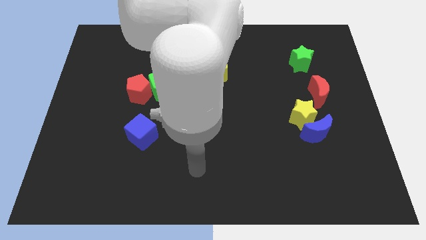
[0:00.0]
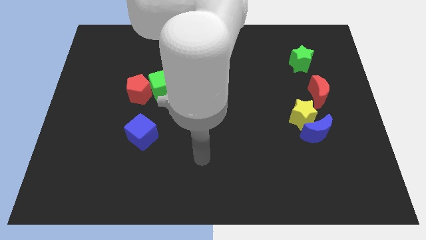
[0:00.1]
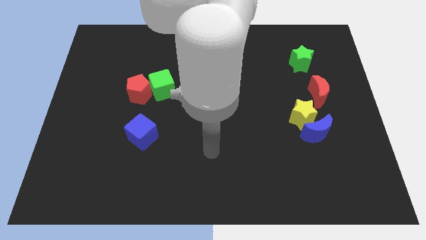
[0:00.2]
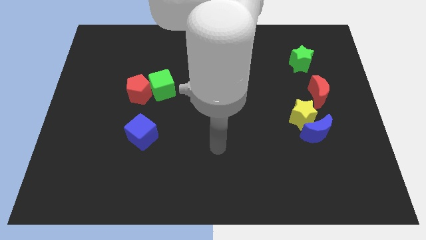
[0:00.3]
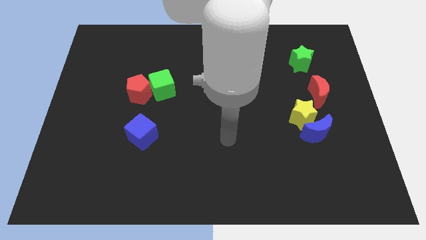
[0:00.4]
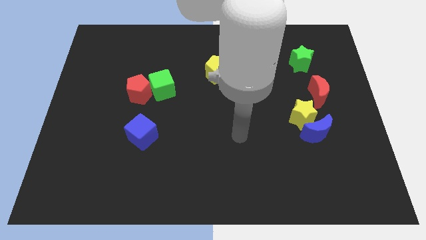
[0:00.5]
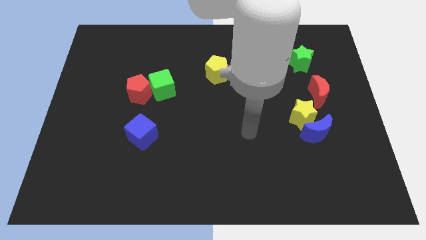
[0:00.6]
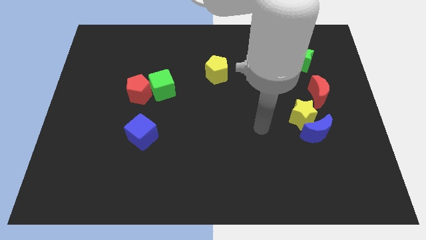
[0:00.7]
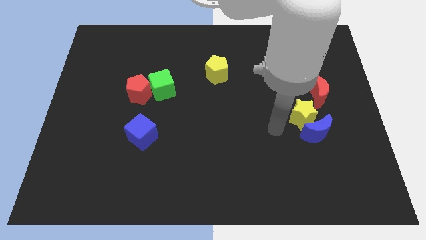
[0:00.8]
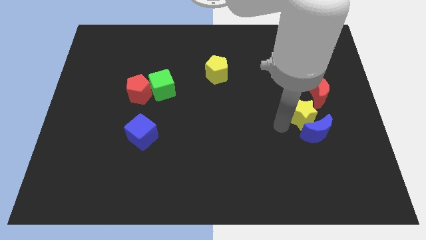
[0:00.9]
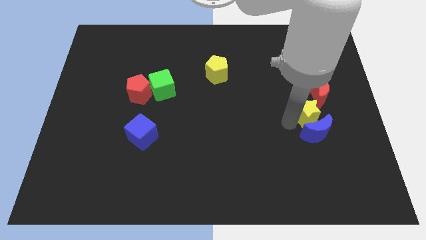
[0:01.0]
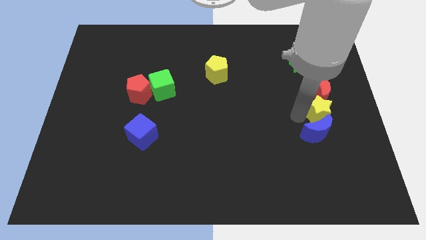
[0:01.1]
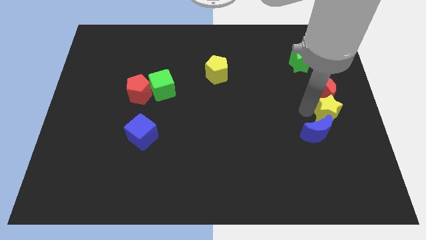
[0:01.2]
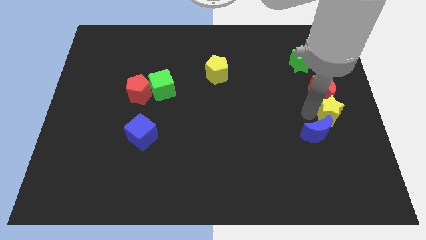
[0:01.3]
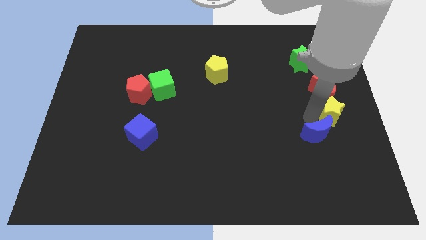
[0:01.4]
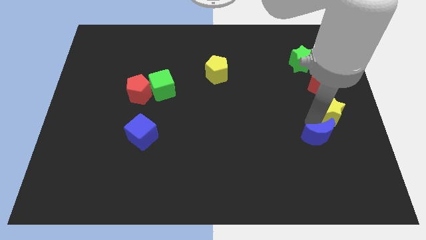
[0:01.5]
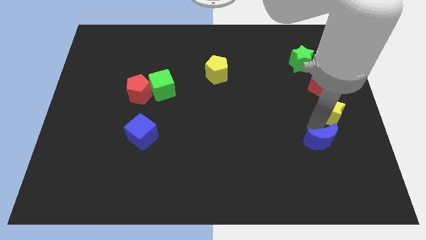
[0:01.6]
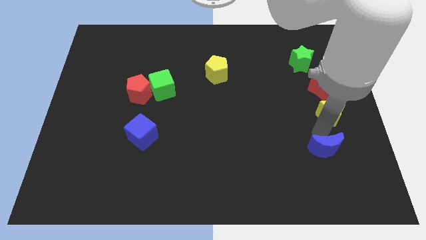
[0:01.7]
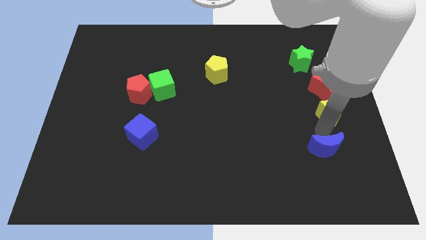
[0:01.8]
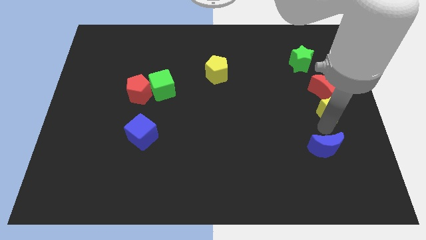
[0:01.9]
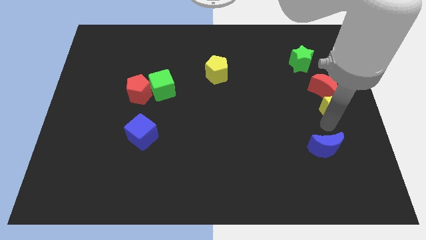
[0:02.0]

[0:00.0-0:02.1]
separate the blue moon from the yellow star

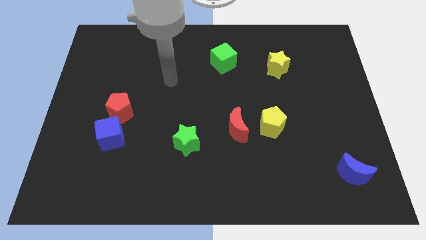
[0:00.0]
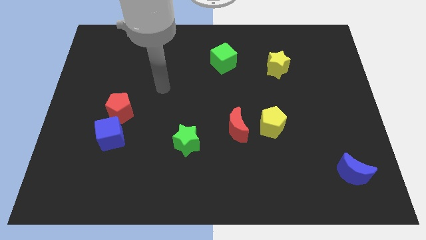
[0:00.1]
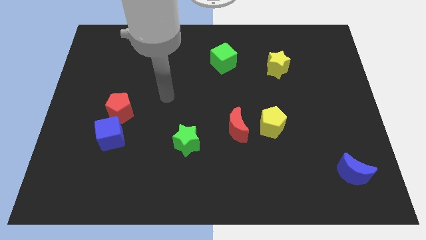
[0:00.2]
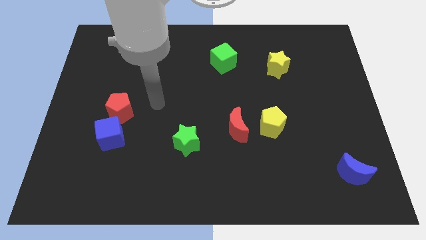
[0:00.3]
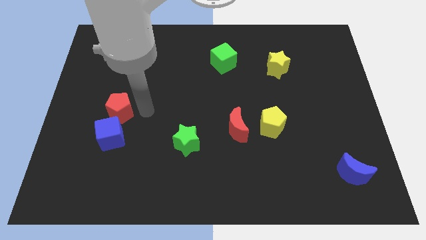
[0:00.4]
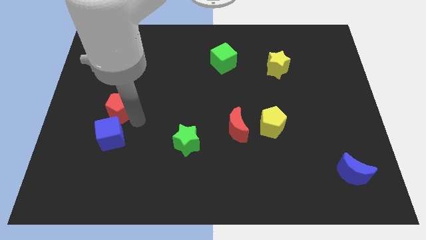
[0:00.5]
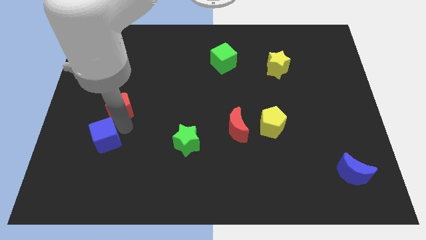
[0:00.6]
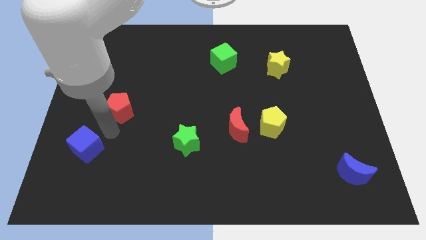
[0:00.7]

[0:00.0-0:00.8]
pull the red pentagon apart from the blue cube

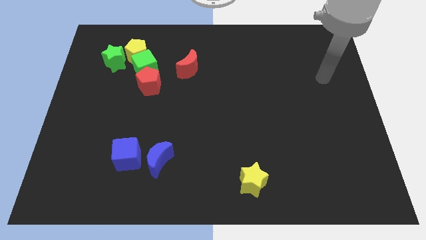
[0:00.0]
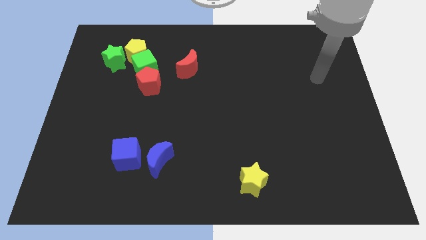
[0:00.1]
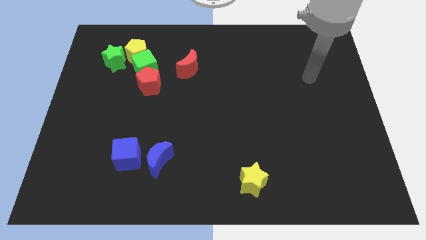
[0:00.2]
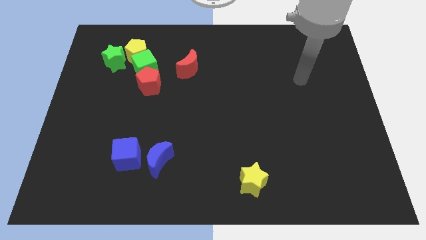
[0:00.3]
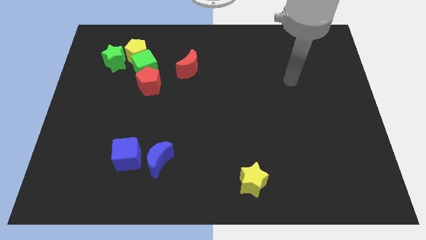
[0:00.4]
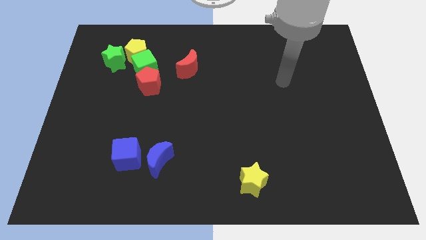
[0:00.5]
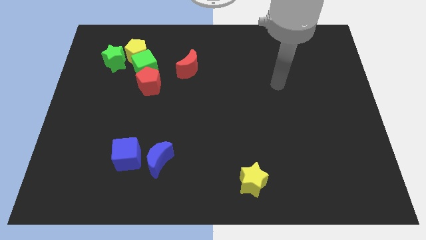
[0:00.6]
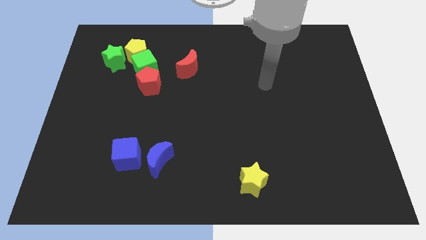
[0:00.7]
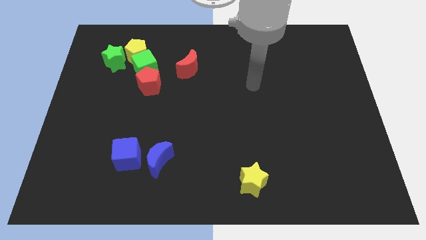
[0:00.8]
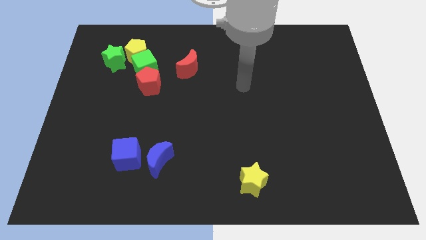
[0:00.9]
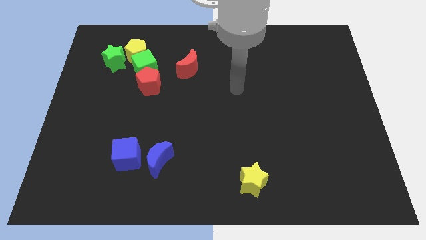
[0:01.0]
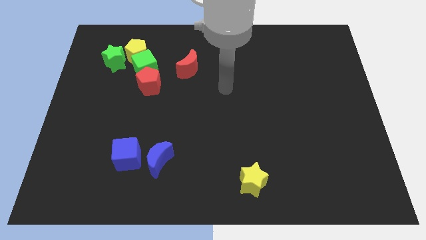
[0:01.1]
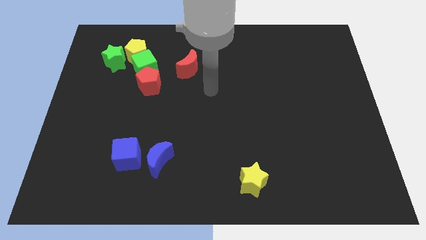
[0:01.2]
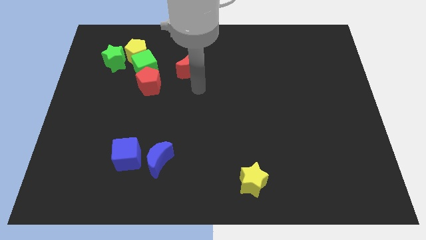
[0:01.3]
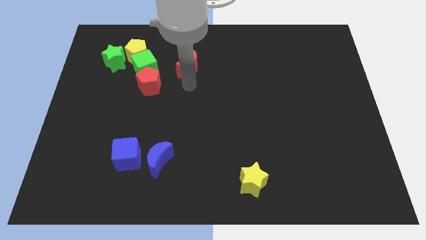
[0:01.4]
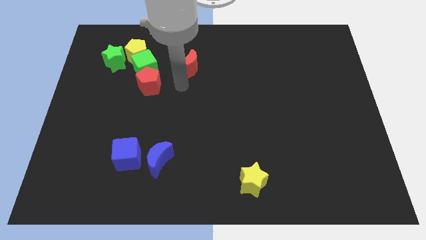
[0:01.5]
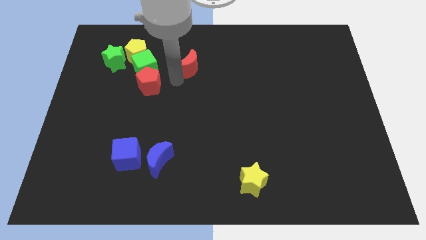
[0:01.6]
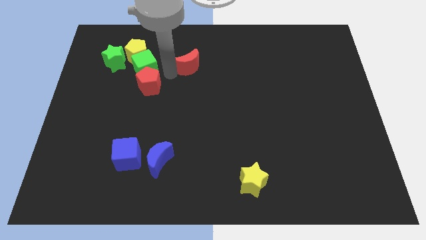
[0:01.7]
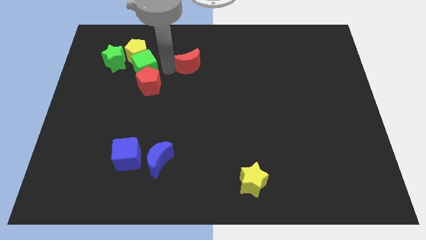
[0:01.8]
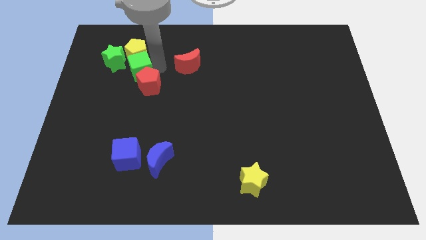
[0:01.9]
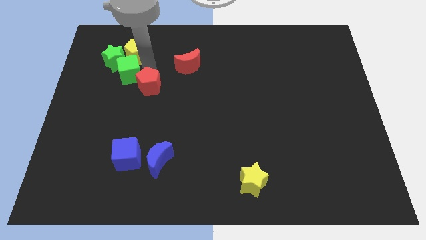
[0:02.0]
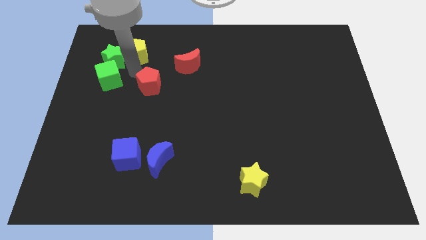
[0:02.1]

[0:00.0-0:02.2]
pull the red pentagon apart from the green cube

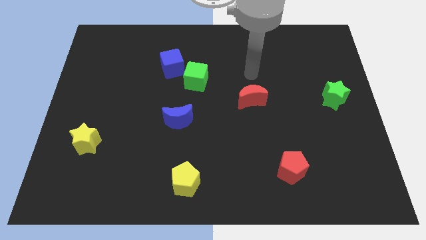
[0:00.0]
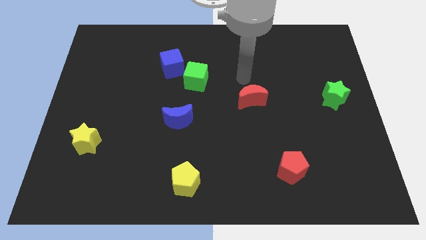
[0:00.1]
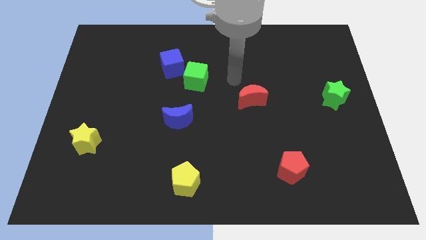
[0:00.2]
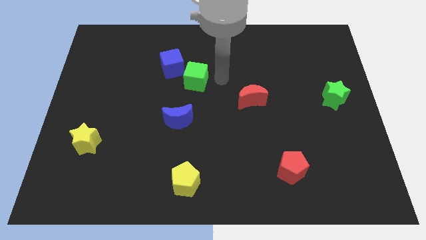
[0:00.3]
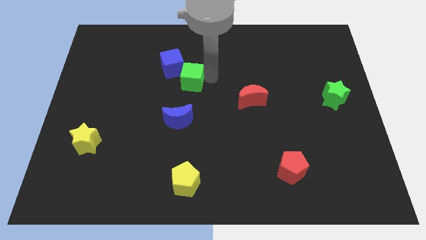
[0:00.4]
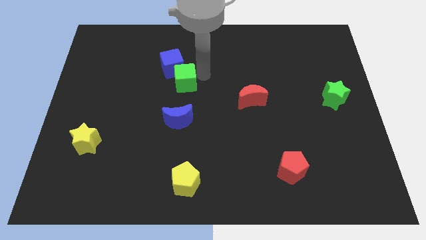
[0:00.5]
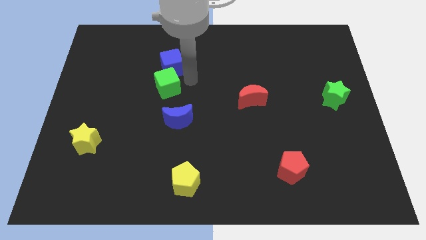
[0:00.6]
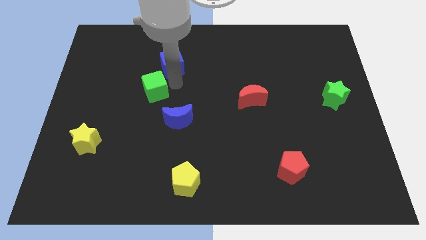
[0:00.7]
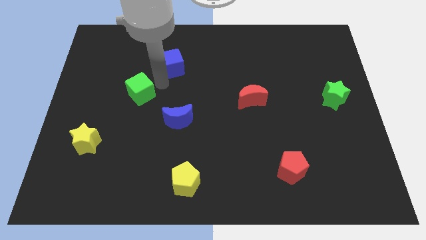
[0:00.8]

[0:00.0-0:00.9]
move the blue cube away from the green cube

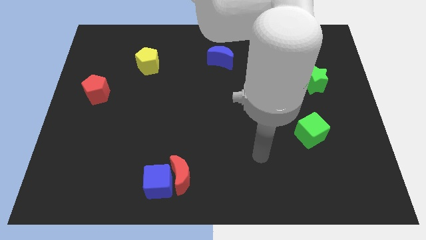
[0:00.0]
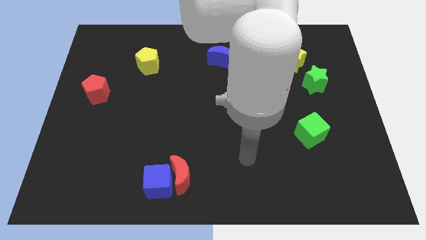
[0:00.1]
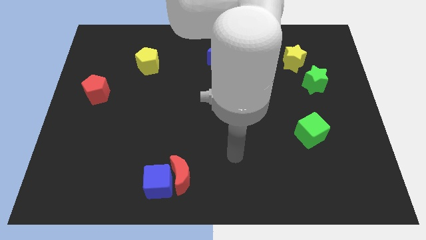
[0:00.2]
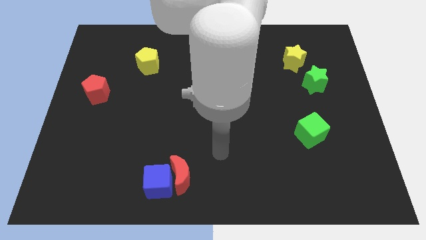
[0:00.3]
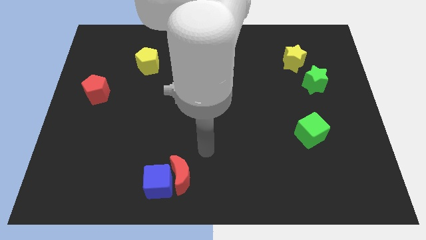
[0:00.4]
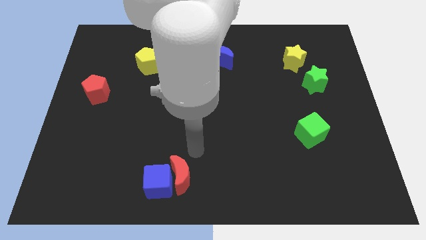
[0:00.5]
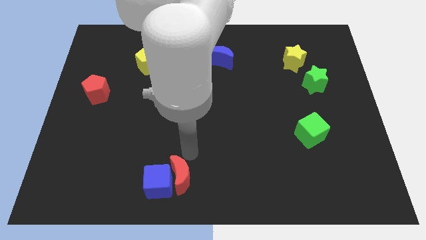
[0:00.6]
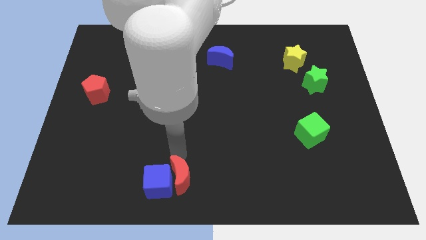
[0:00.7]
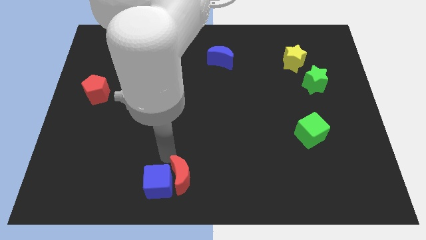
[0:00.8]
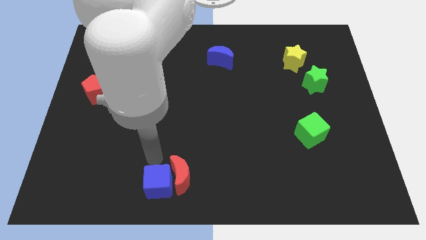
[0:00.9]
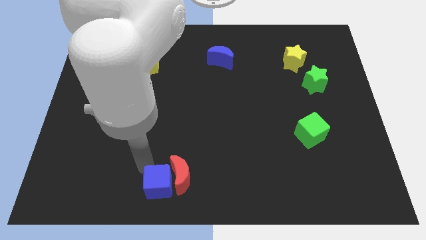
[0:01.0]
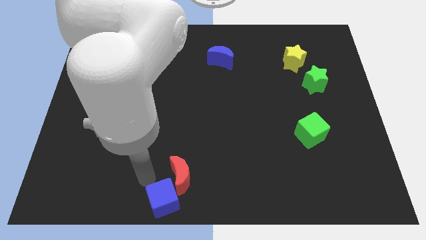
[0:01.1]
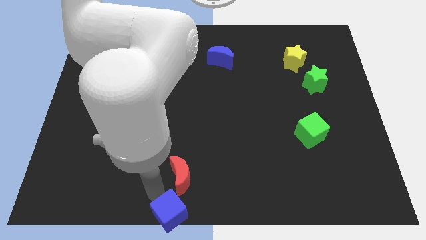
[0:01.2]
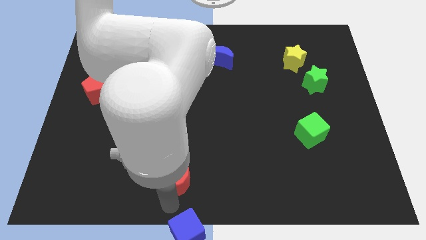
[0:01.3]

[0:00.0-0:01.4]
separate the red moon from the blue cube

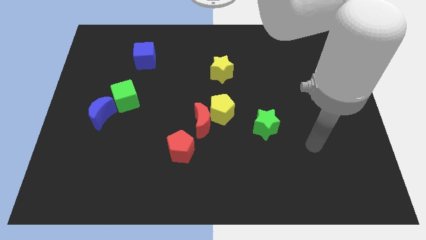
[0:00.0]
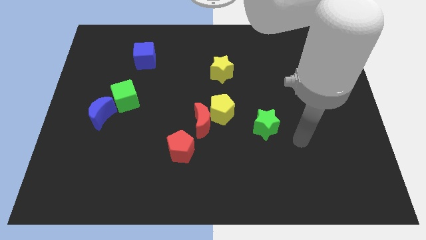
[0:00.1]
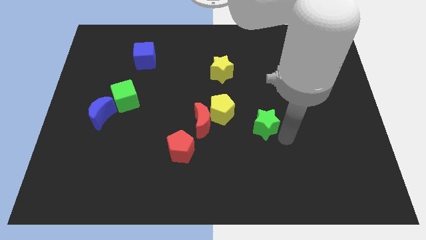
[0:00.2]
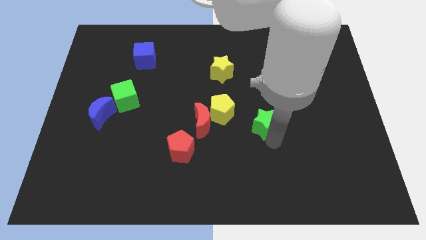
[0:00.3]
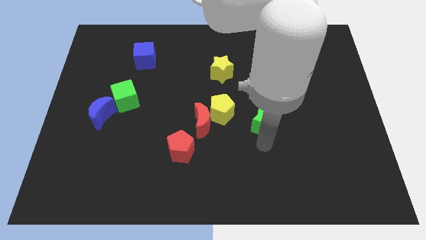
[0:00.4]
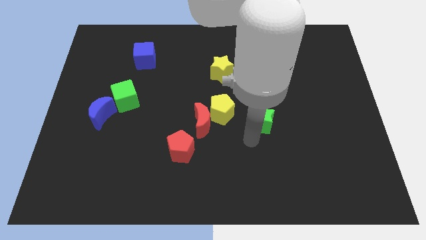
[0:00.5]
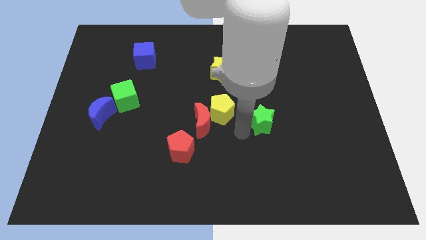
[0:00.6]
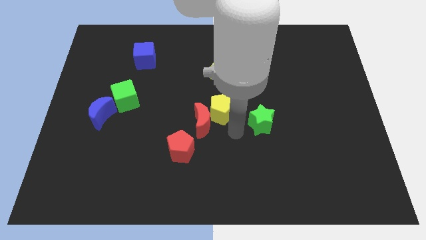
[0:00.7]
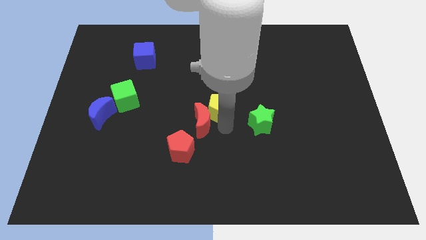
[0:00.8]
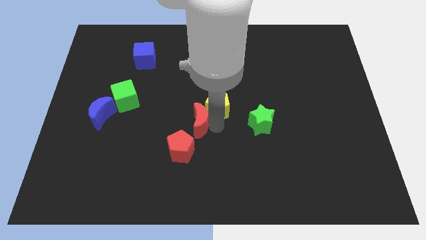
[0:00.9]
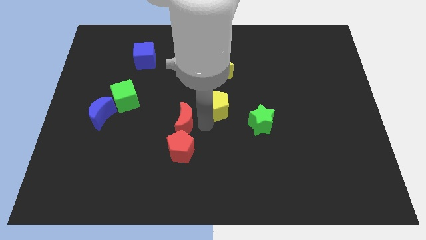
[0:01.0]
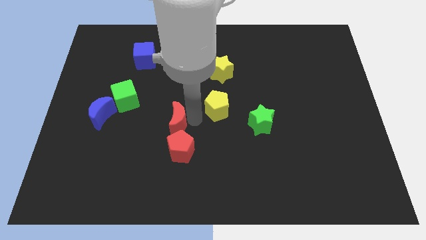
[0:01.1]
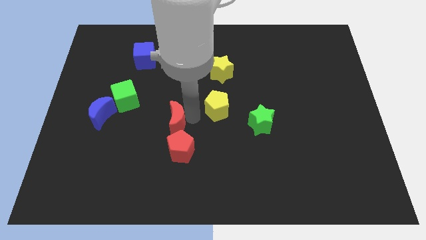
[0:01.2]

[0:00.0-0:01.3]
pull the yellow pentagon apart from the red moon

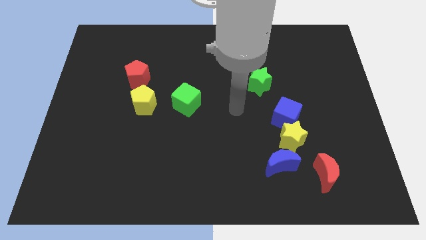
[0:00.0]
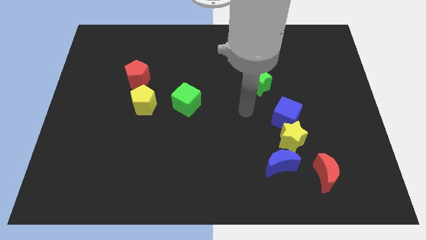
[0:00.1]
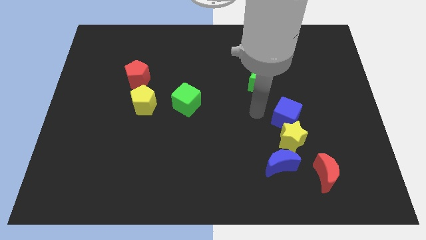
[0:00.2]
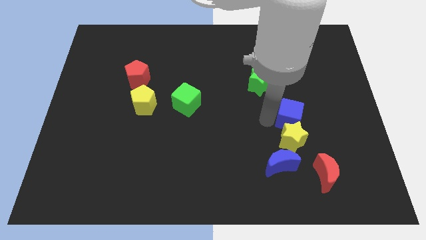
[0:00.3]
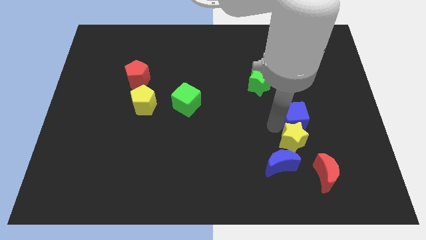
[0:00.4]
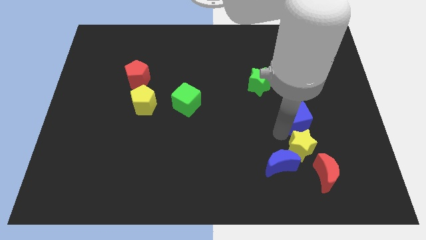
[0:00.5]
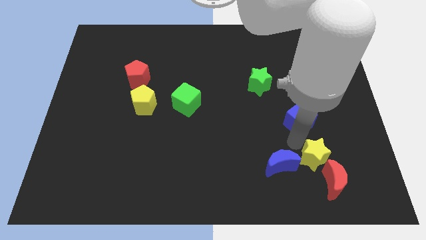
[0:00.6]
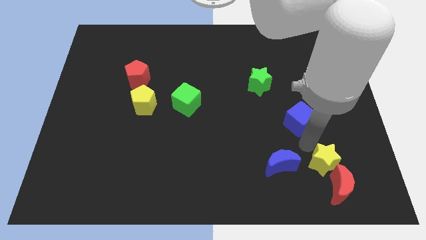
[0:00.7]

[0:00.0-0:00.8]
move the blue cube away from the yellow star
